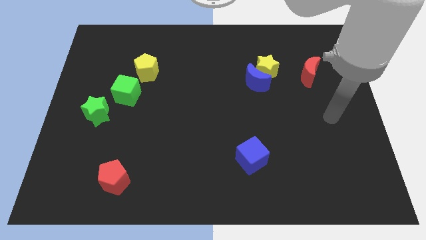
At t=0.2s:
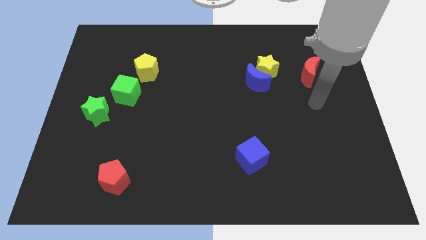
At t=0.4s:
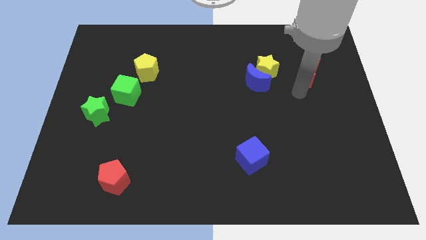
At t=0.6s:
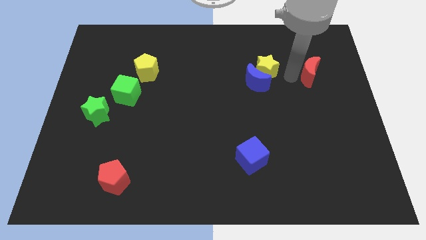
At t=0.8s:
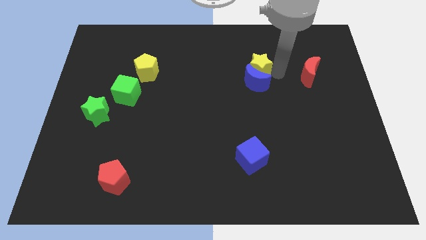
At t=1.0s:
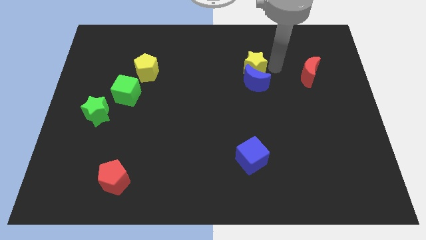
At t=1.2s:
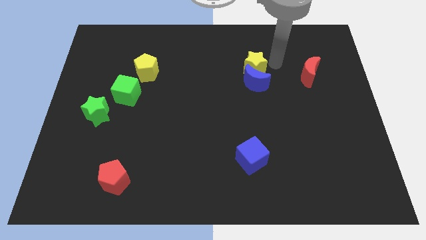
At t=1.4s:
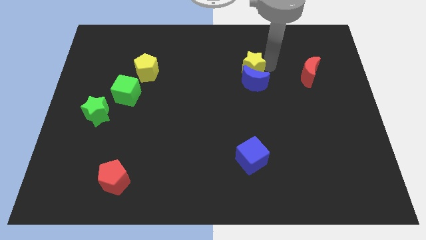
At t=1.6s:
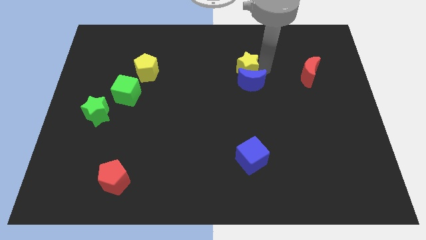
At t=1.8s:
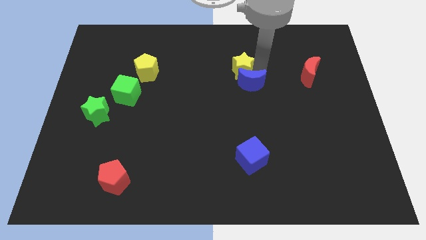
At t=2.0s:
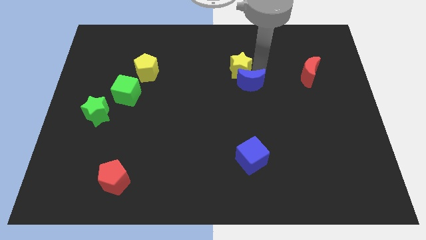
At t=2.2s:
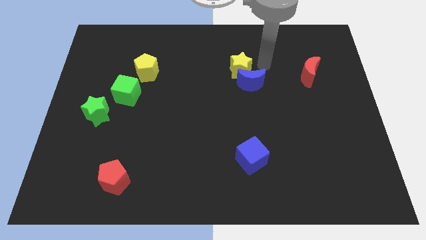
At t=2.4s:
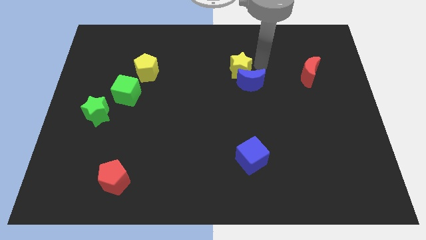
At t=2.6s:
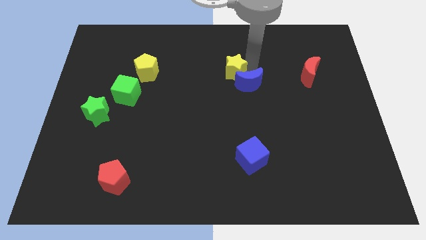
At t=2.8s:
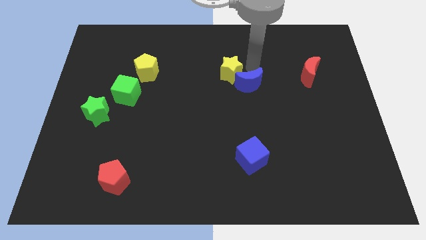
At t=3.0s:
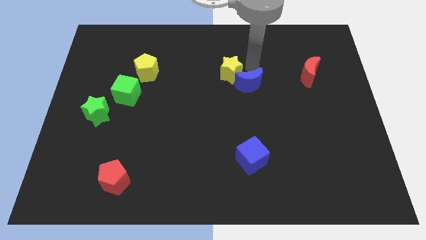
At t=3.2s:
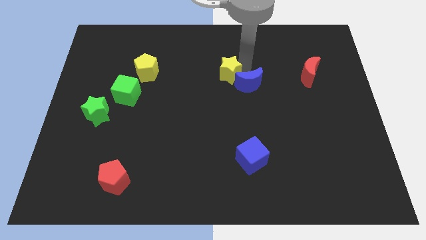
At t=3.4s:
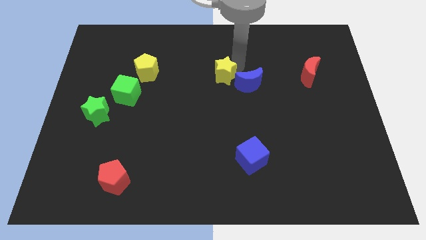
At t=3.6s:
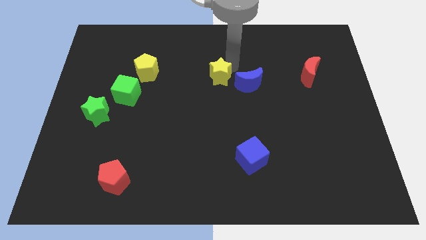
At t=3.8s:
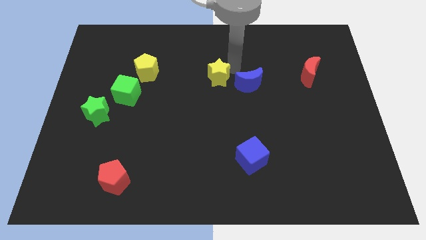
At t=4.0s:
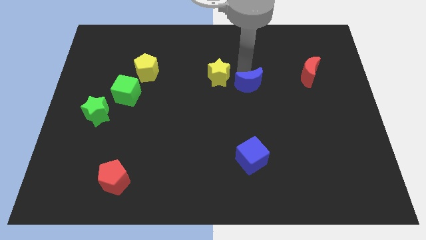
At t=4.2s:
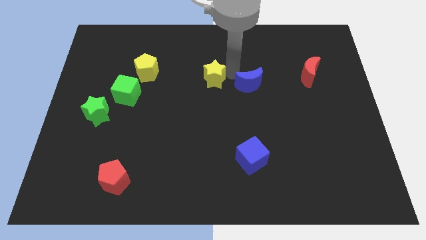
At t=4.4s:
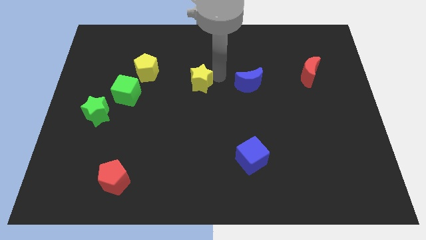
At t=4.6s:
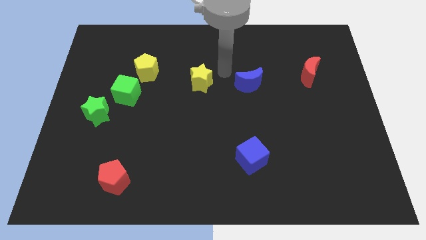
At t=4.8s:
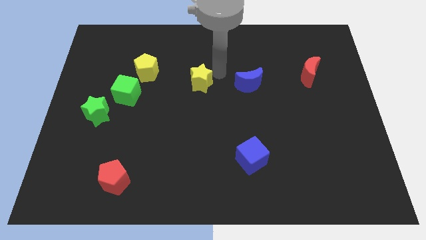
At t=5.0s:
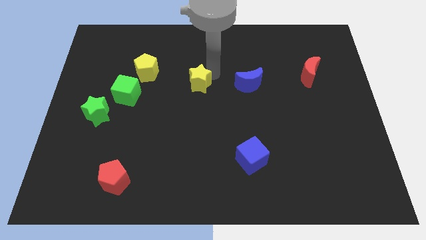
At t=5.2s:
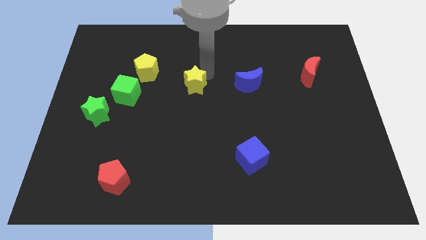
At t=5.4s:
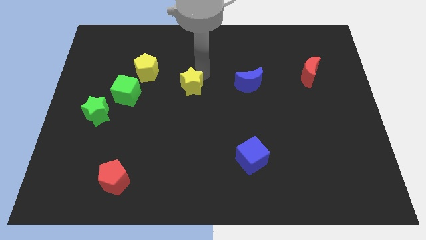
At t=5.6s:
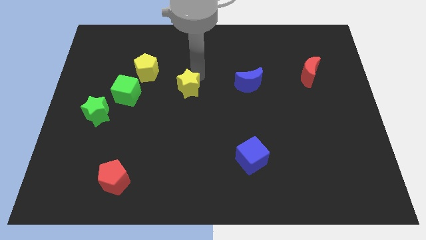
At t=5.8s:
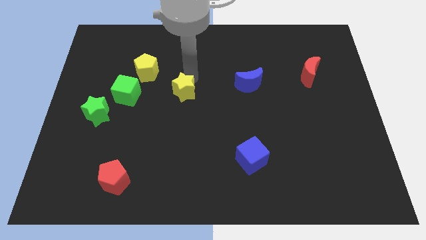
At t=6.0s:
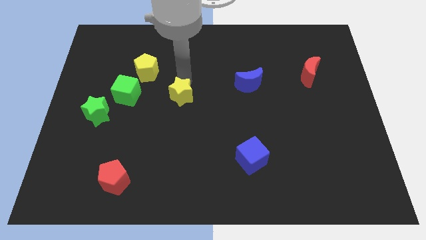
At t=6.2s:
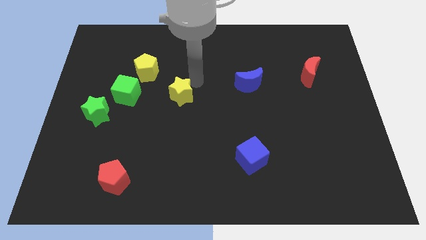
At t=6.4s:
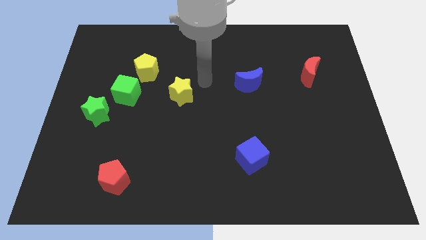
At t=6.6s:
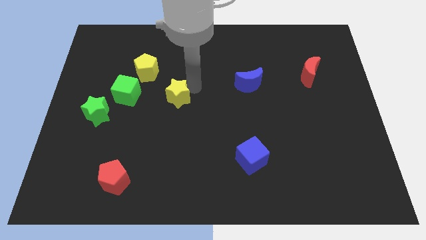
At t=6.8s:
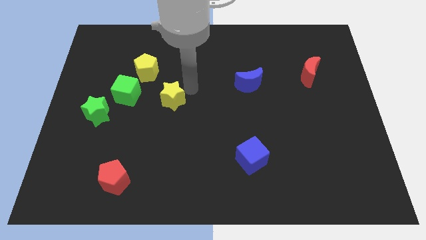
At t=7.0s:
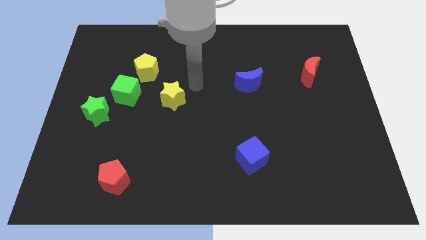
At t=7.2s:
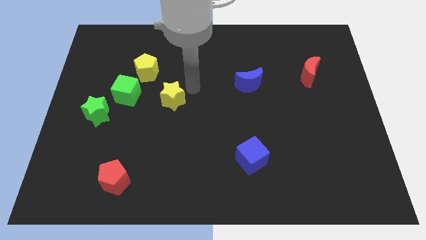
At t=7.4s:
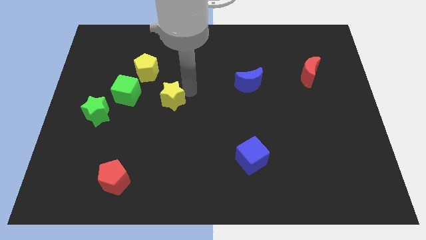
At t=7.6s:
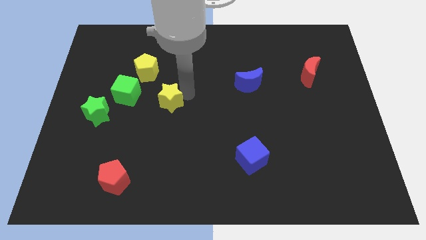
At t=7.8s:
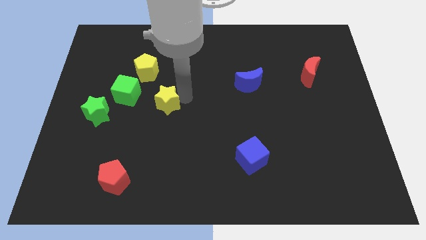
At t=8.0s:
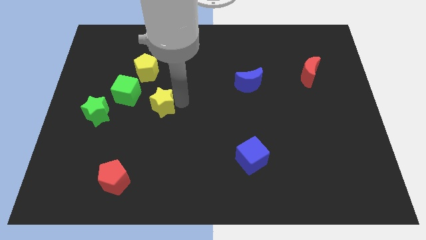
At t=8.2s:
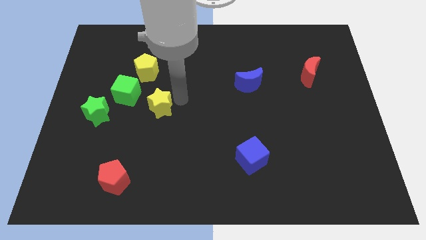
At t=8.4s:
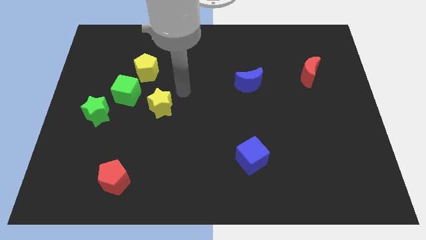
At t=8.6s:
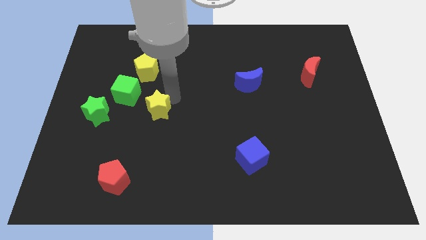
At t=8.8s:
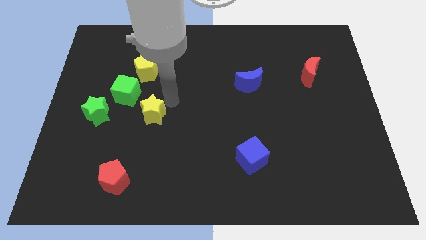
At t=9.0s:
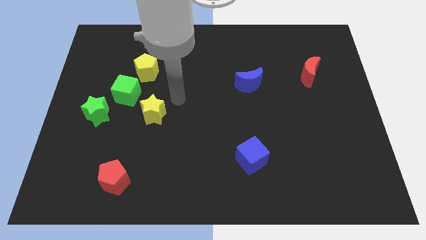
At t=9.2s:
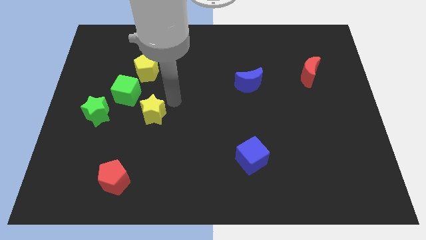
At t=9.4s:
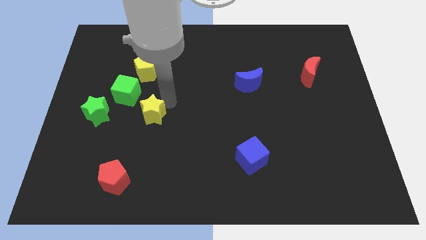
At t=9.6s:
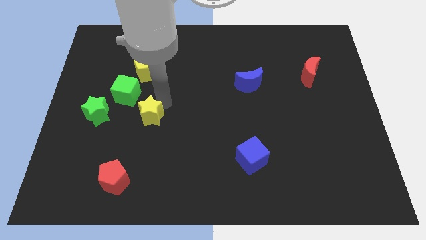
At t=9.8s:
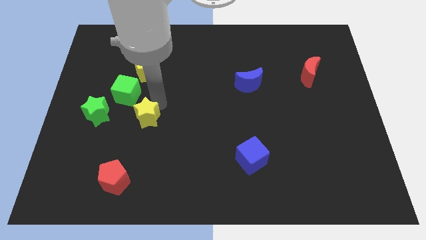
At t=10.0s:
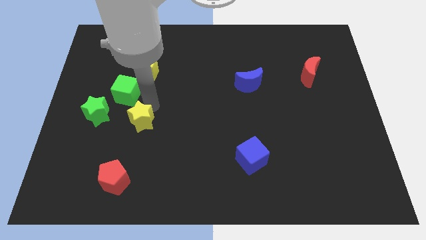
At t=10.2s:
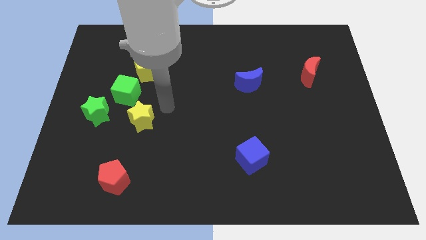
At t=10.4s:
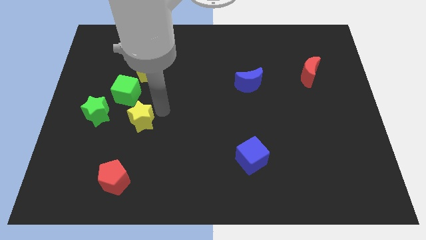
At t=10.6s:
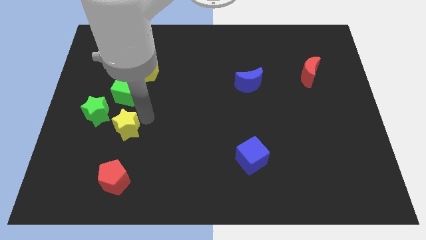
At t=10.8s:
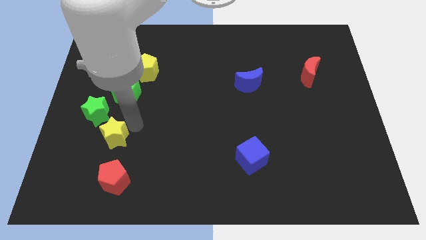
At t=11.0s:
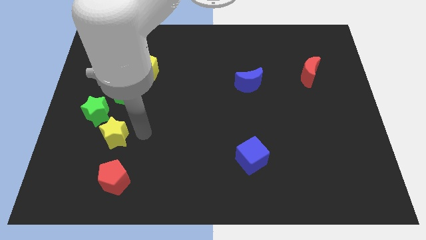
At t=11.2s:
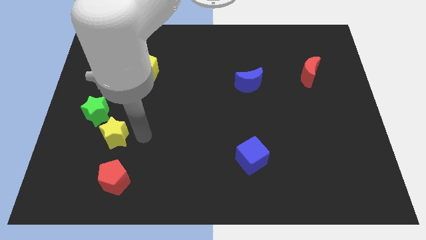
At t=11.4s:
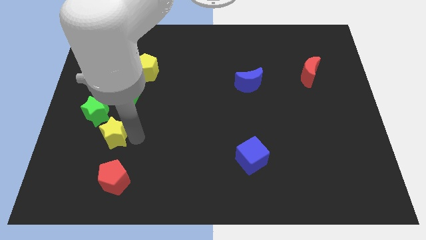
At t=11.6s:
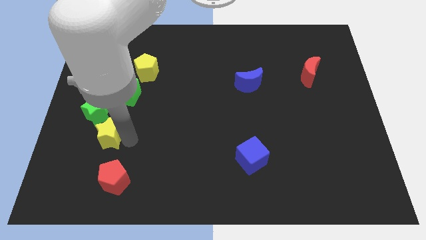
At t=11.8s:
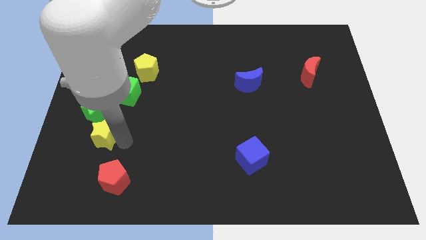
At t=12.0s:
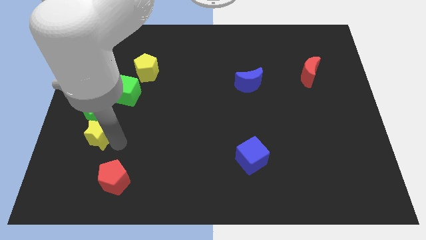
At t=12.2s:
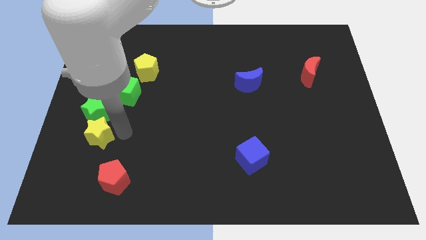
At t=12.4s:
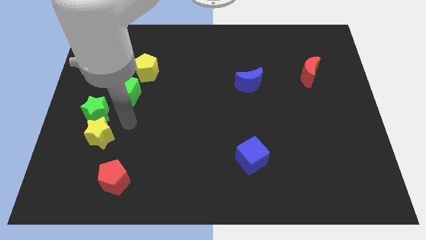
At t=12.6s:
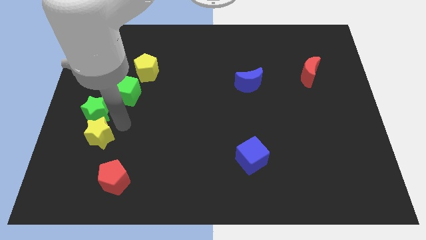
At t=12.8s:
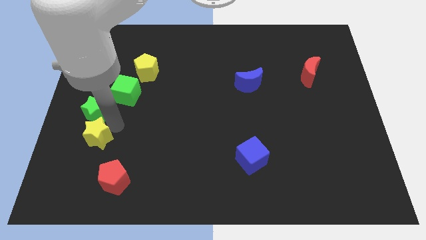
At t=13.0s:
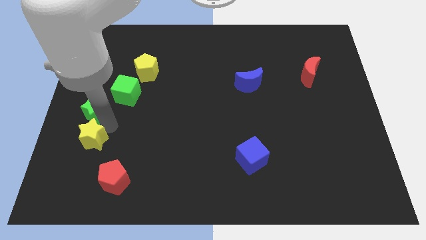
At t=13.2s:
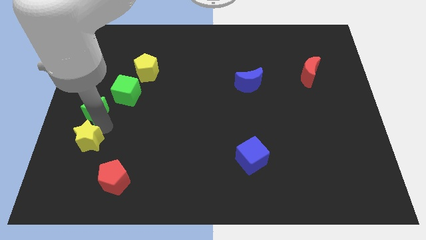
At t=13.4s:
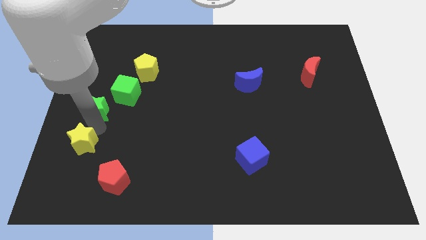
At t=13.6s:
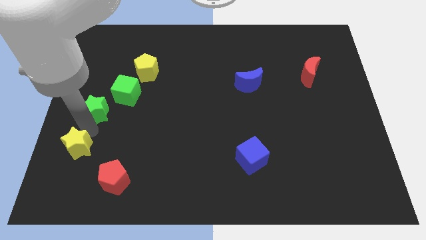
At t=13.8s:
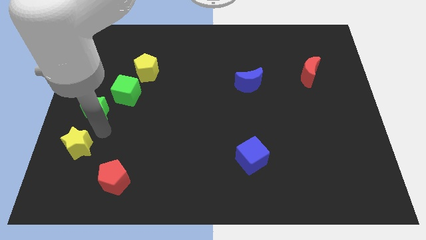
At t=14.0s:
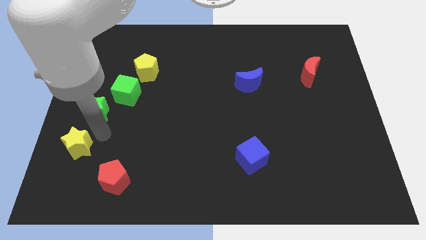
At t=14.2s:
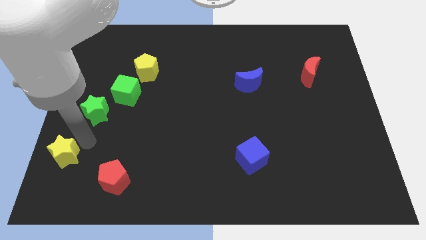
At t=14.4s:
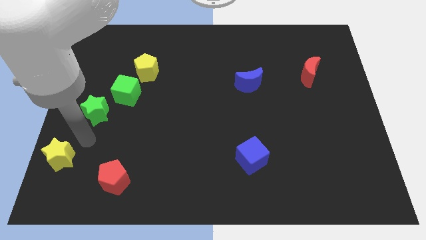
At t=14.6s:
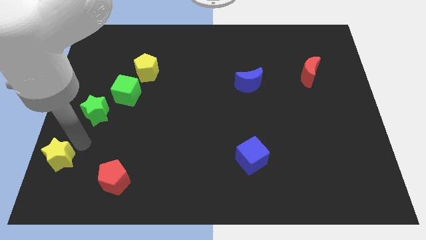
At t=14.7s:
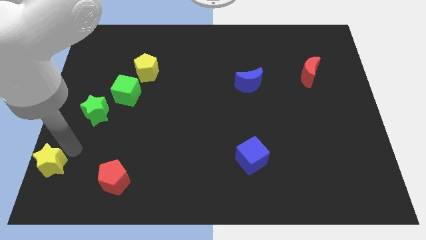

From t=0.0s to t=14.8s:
put the yellow star to the bottom left corner
